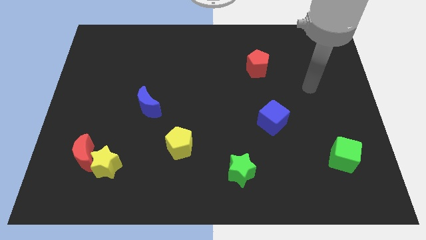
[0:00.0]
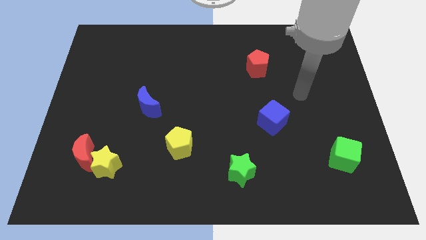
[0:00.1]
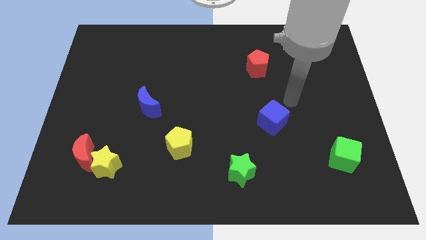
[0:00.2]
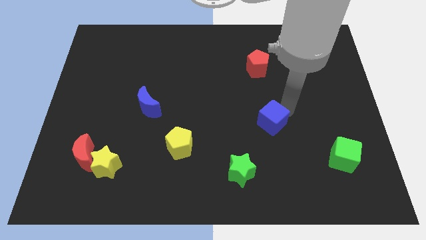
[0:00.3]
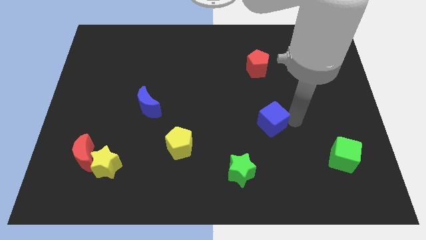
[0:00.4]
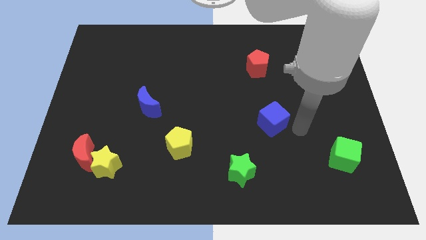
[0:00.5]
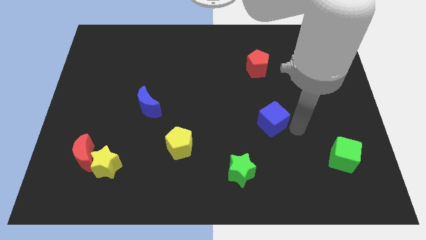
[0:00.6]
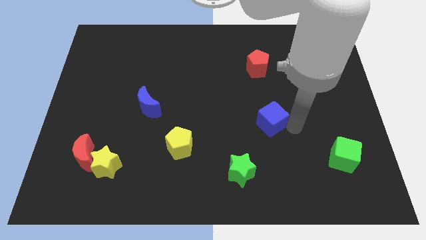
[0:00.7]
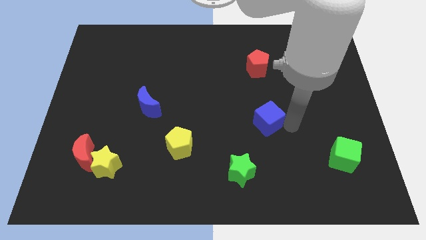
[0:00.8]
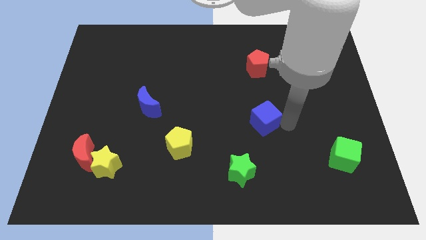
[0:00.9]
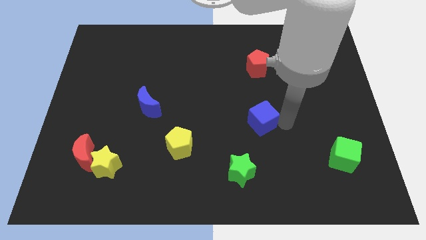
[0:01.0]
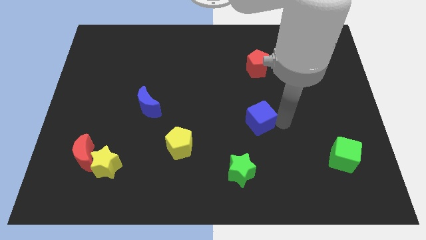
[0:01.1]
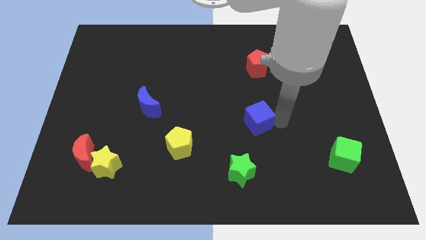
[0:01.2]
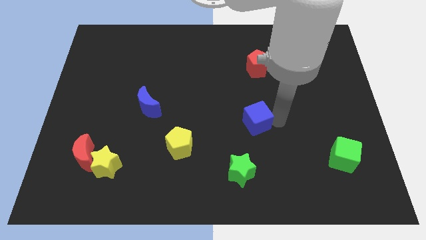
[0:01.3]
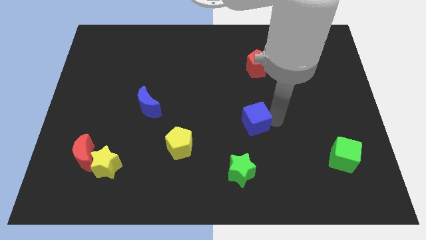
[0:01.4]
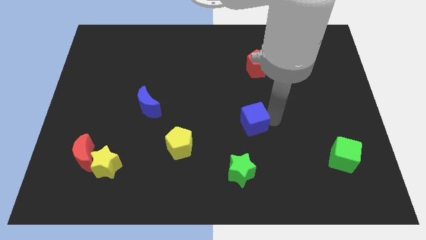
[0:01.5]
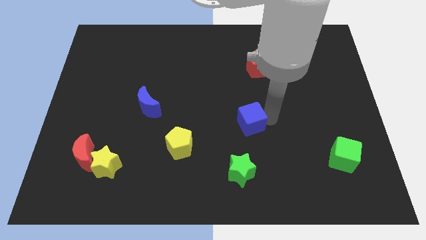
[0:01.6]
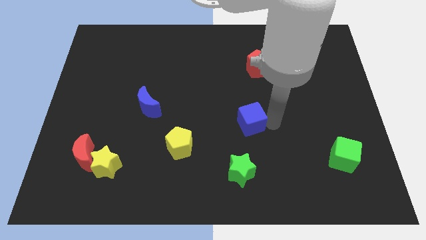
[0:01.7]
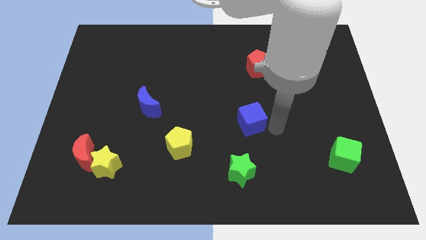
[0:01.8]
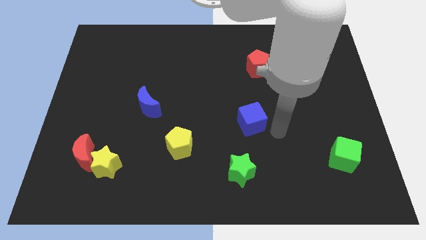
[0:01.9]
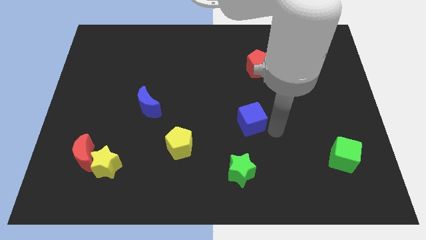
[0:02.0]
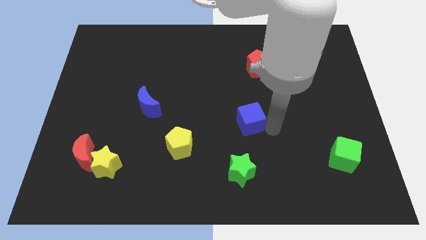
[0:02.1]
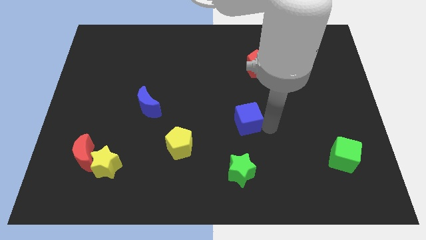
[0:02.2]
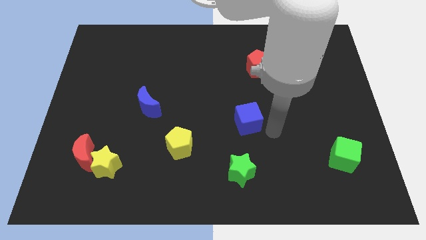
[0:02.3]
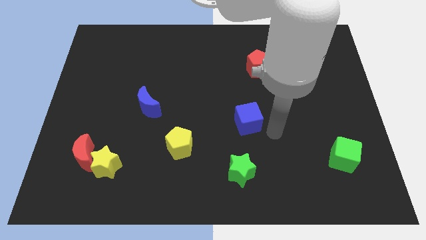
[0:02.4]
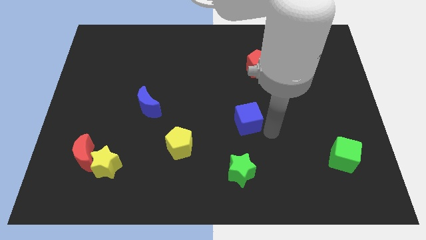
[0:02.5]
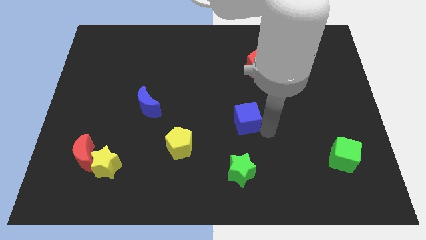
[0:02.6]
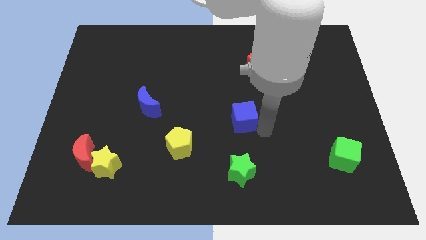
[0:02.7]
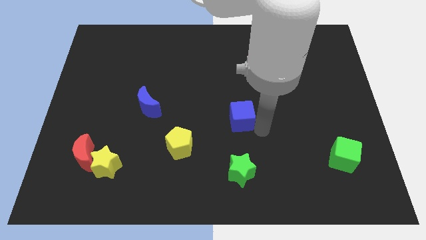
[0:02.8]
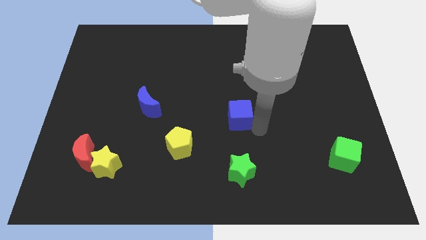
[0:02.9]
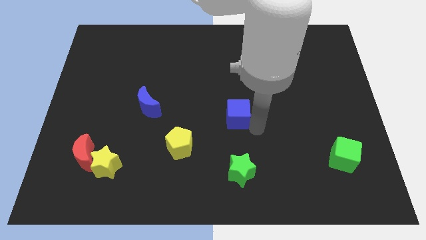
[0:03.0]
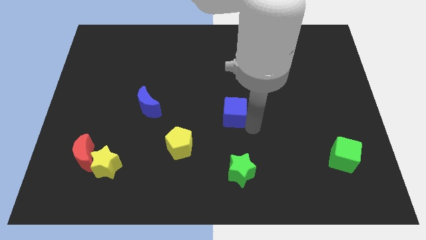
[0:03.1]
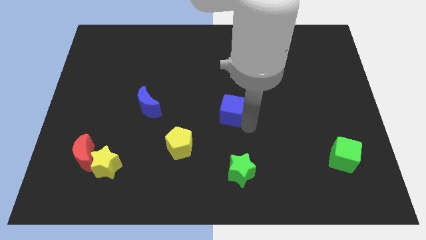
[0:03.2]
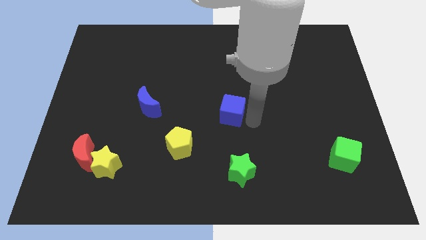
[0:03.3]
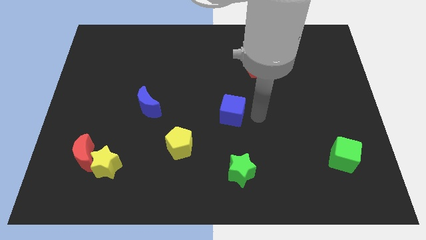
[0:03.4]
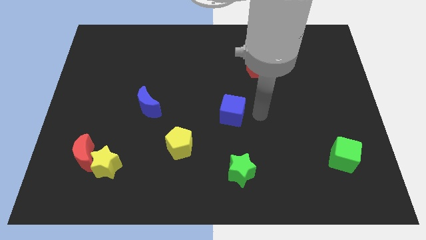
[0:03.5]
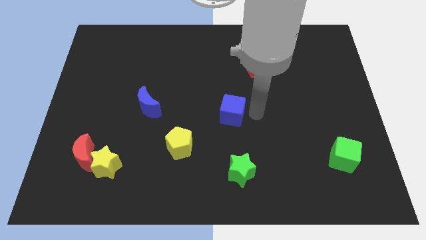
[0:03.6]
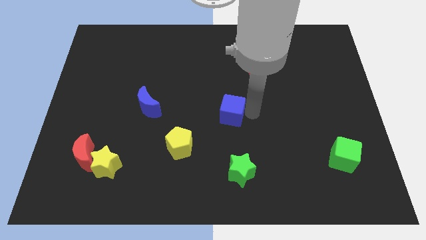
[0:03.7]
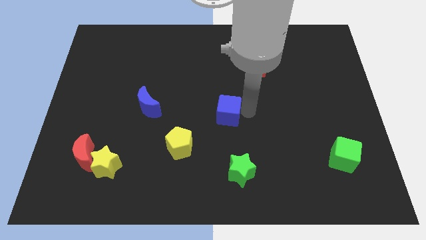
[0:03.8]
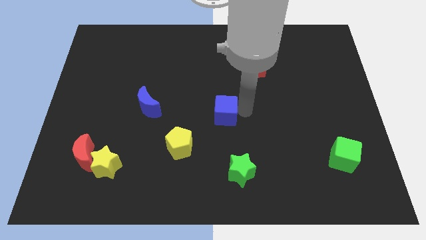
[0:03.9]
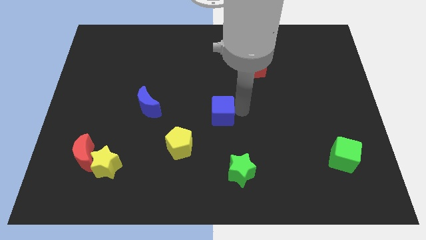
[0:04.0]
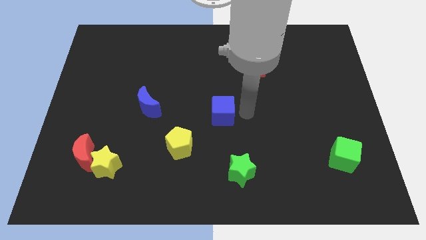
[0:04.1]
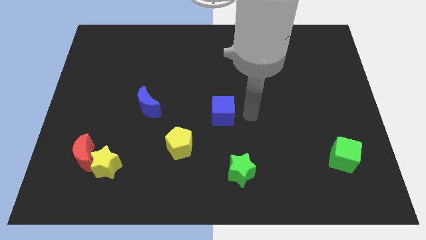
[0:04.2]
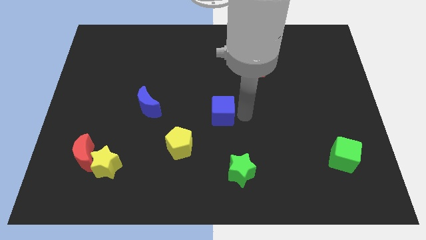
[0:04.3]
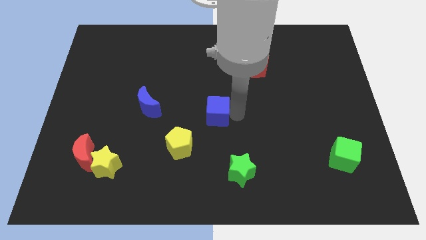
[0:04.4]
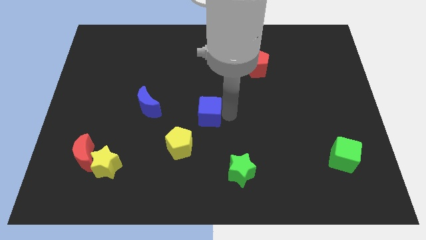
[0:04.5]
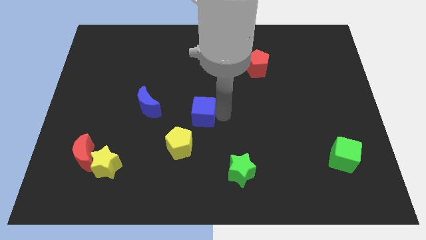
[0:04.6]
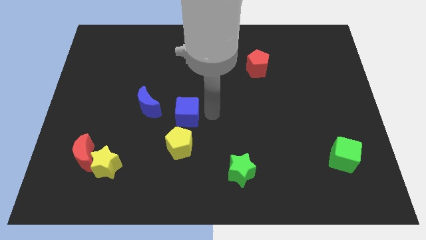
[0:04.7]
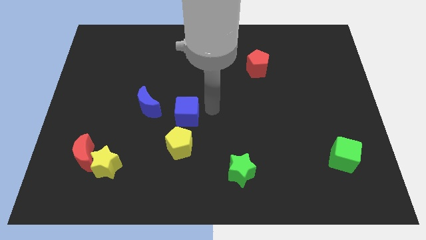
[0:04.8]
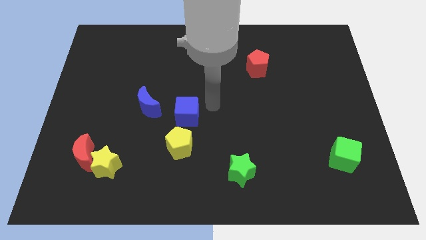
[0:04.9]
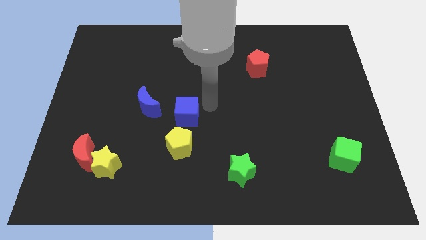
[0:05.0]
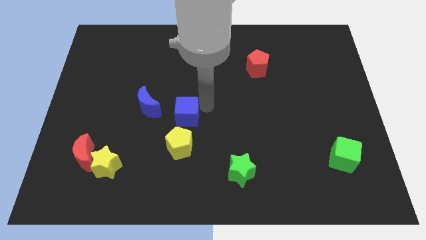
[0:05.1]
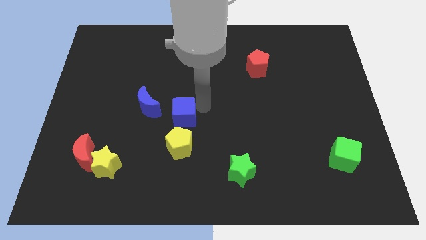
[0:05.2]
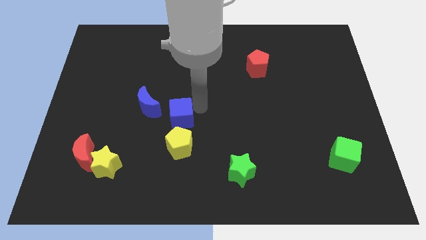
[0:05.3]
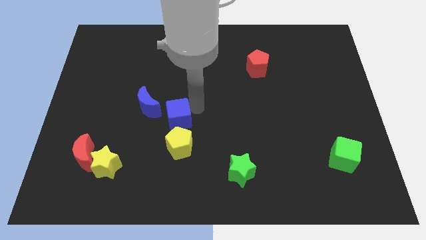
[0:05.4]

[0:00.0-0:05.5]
put the blue cube to the top left of the yellow pentagon
